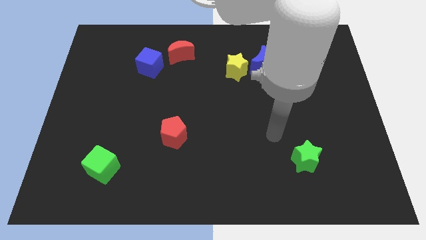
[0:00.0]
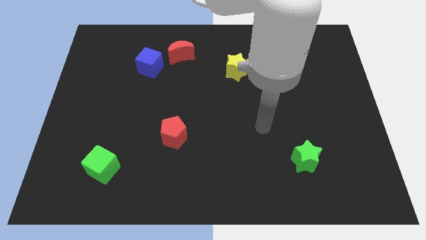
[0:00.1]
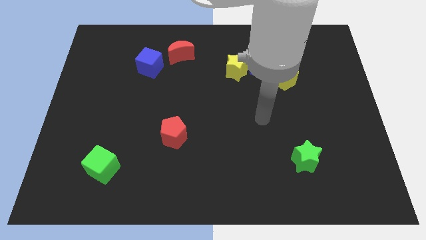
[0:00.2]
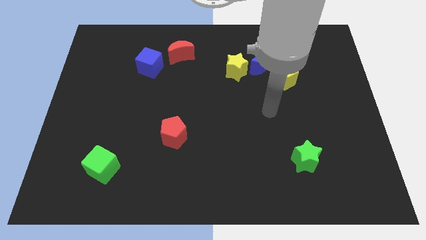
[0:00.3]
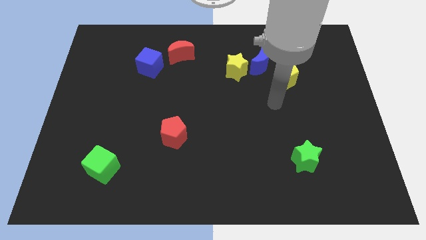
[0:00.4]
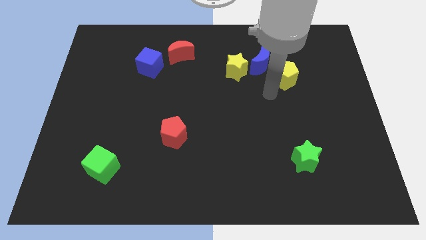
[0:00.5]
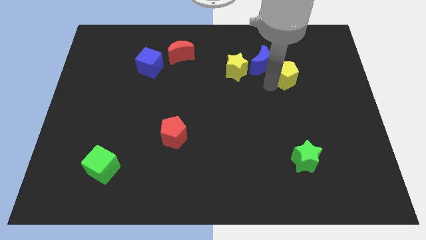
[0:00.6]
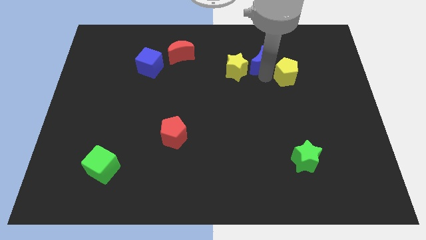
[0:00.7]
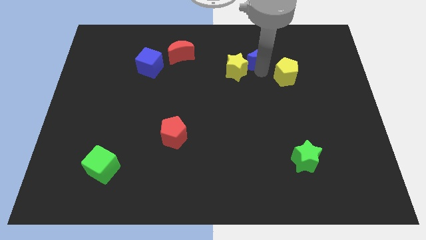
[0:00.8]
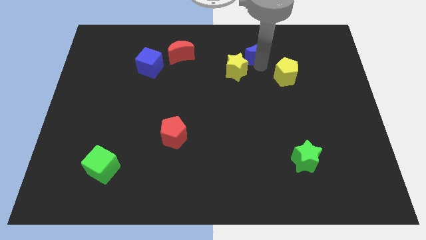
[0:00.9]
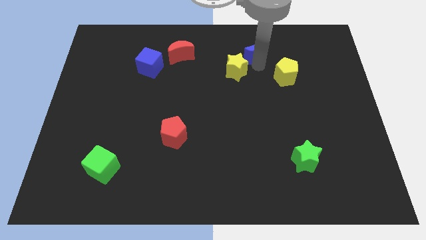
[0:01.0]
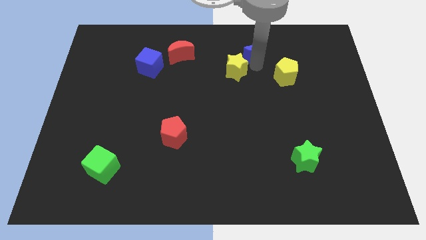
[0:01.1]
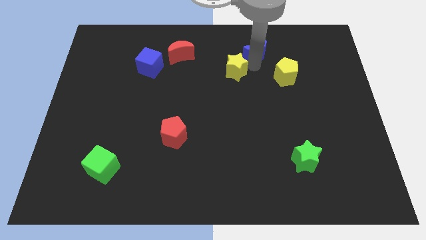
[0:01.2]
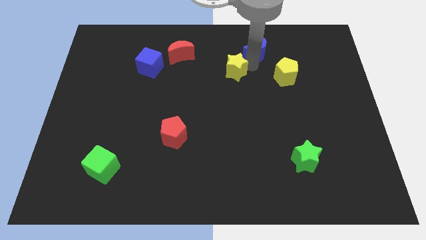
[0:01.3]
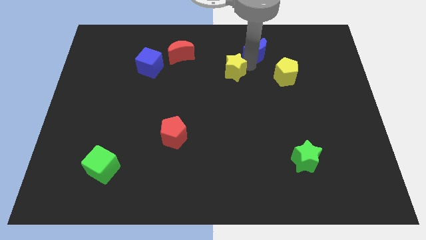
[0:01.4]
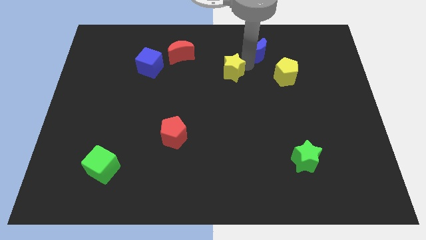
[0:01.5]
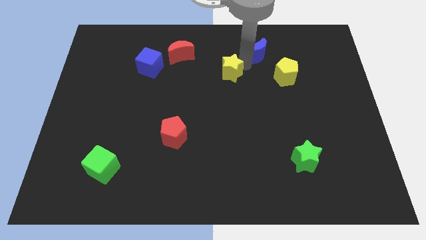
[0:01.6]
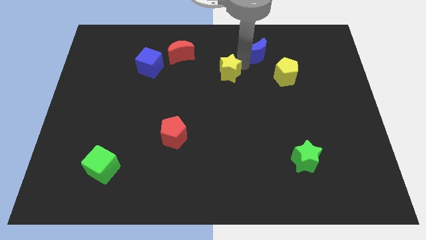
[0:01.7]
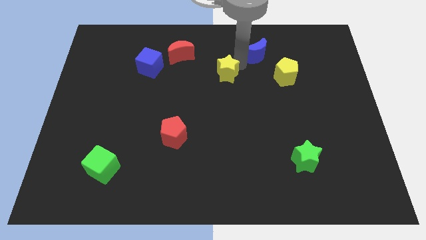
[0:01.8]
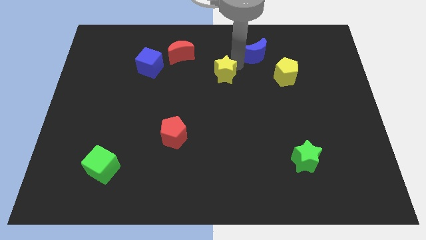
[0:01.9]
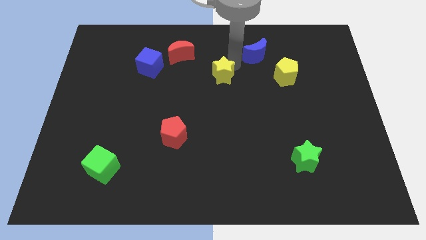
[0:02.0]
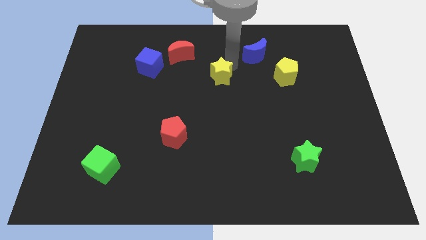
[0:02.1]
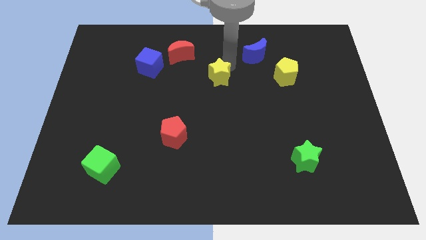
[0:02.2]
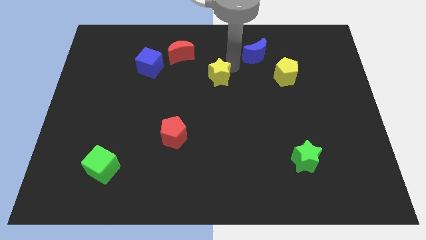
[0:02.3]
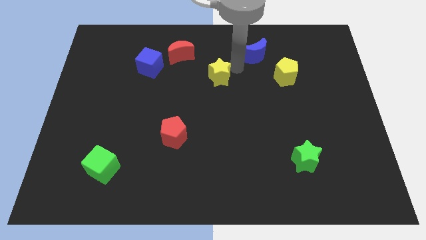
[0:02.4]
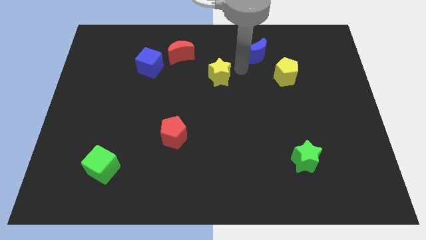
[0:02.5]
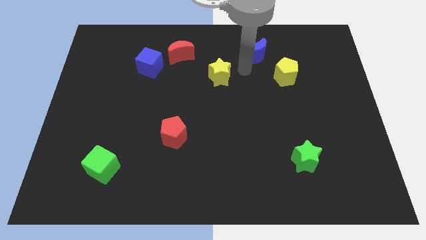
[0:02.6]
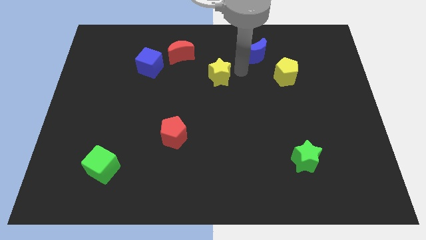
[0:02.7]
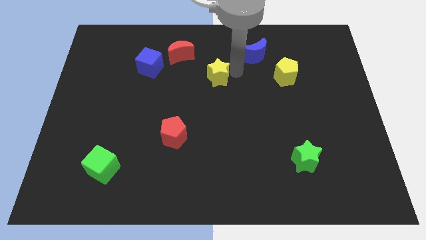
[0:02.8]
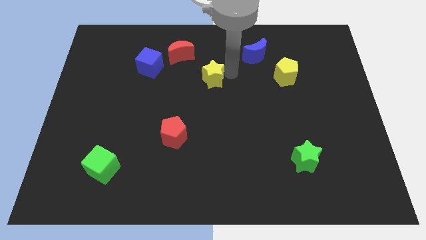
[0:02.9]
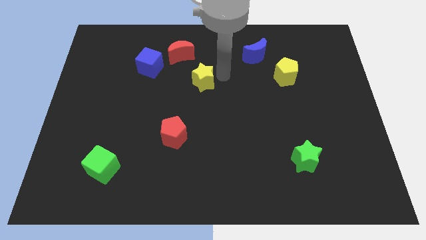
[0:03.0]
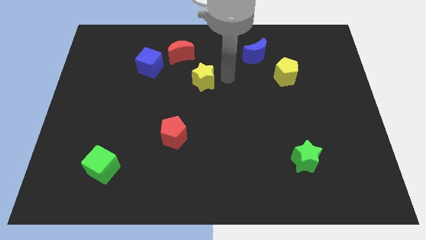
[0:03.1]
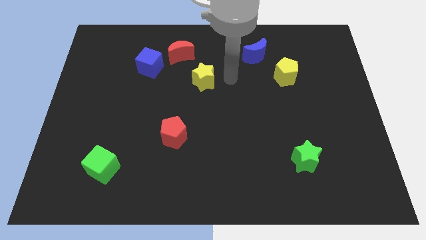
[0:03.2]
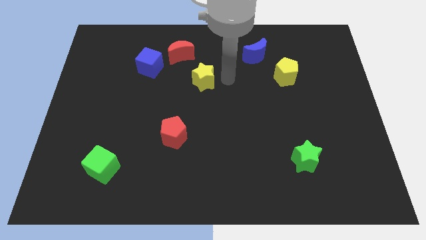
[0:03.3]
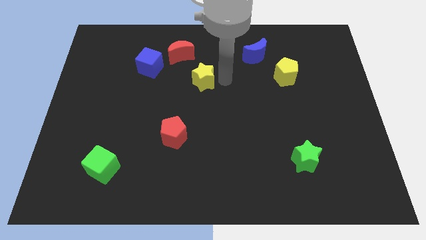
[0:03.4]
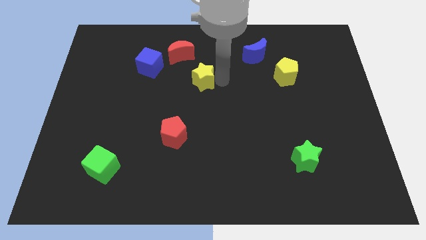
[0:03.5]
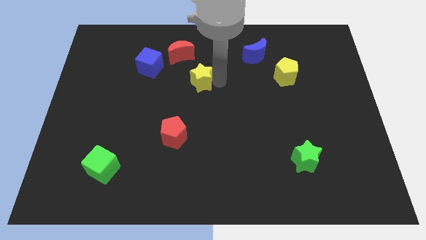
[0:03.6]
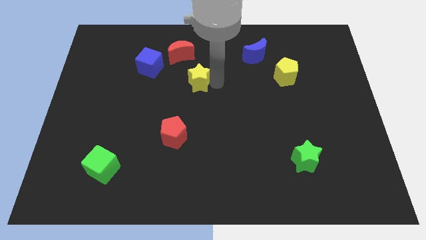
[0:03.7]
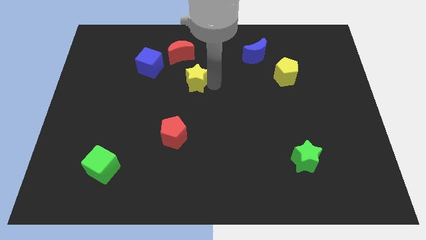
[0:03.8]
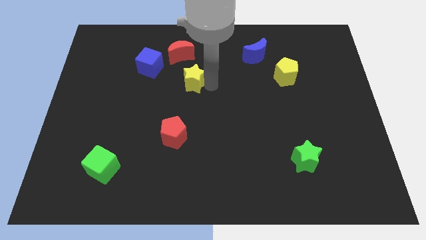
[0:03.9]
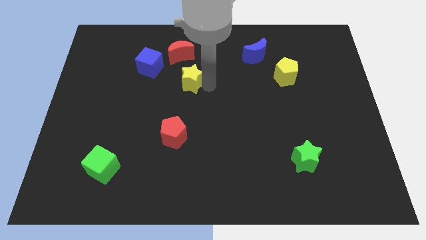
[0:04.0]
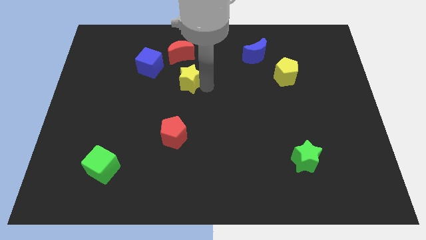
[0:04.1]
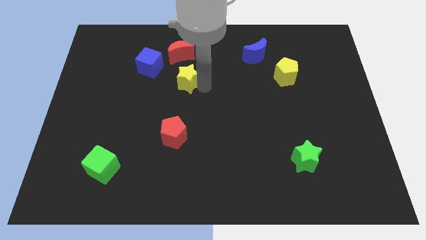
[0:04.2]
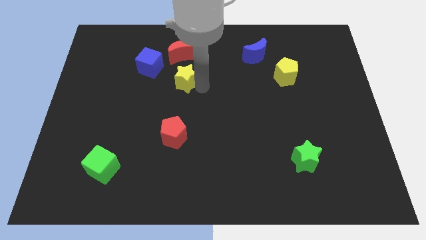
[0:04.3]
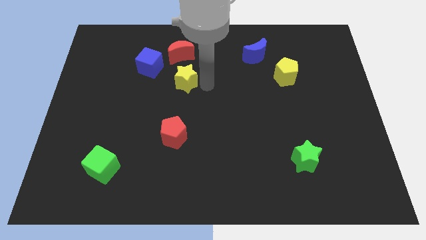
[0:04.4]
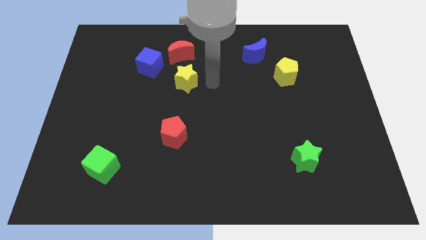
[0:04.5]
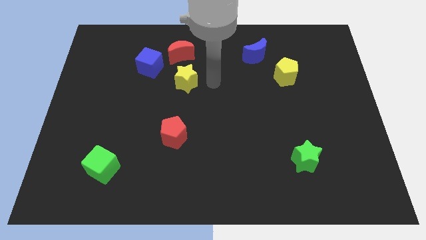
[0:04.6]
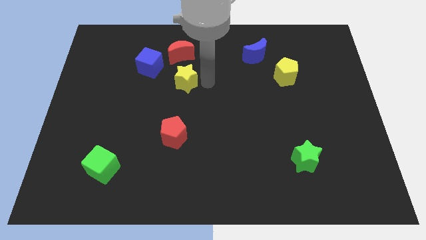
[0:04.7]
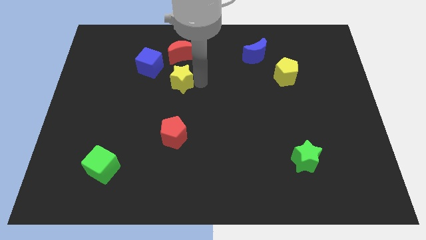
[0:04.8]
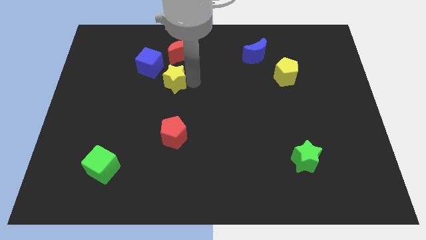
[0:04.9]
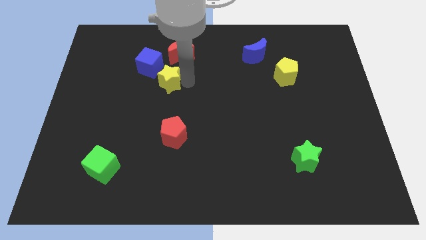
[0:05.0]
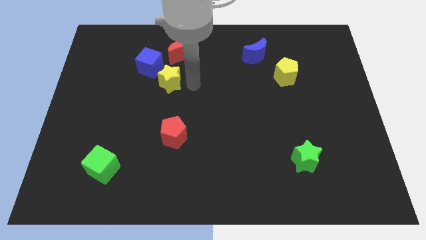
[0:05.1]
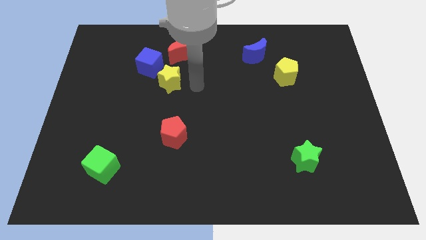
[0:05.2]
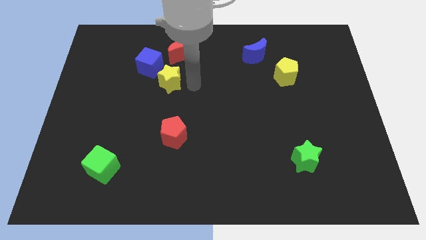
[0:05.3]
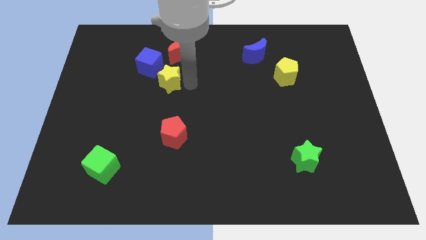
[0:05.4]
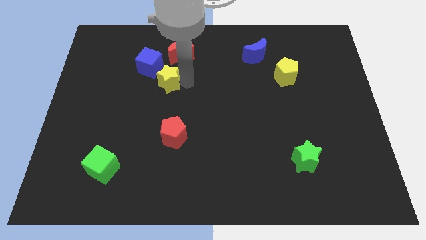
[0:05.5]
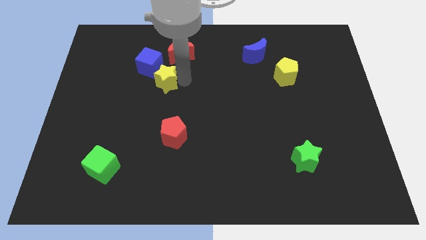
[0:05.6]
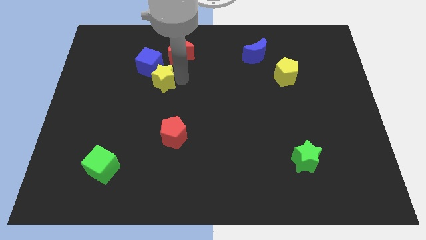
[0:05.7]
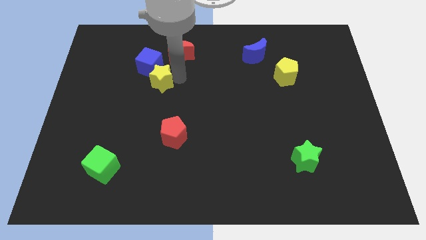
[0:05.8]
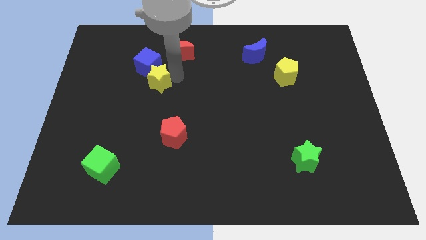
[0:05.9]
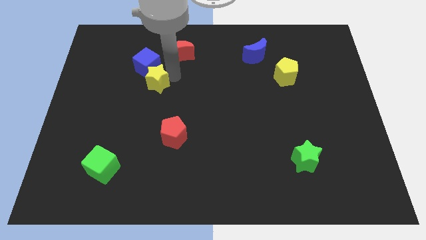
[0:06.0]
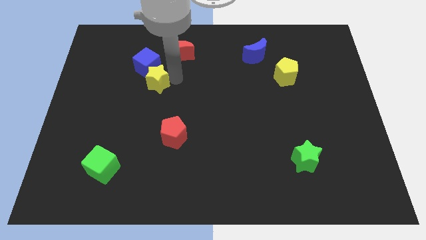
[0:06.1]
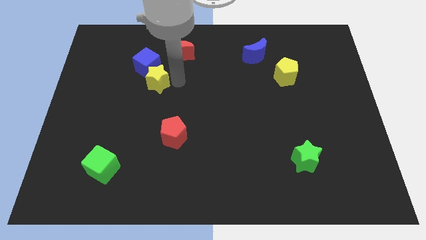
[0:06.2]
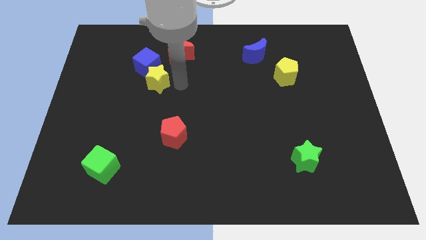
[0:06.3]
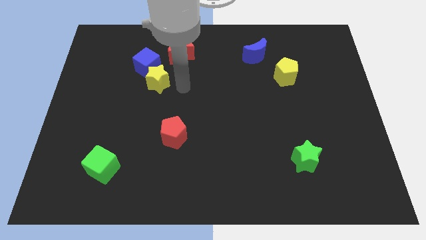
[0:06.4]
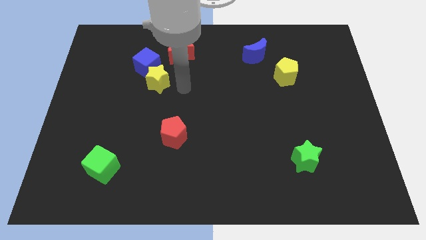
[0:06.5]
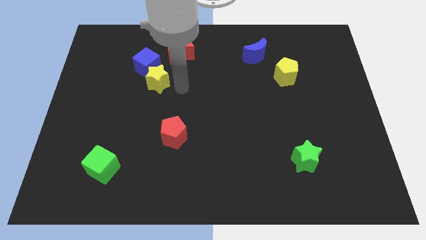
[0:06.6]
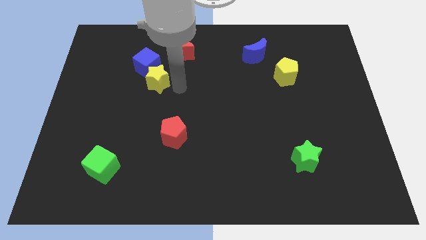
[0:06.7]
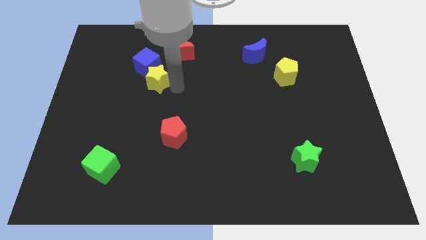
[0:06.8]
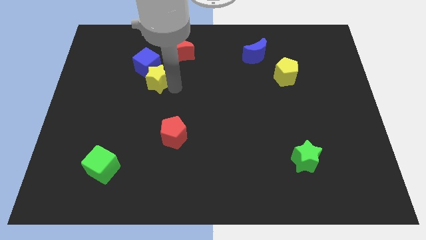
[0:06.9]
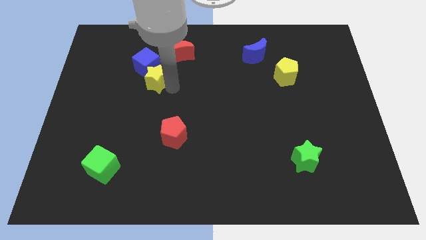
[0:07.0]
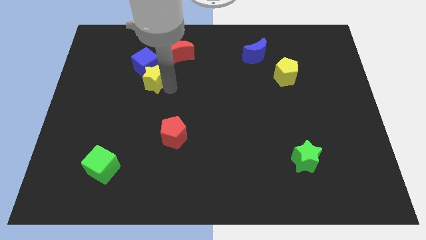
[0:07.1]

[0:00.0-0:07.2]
move the yellow star left

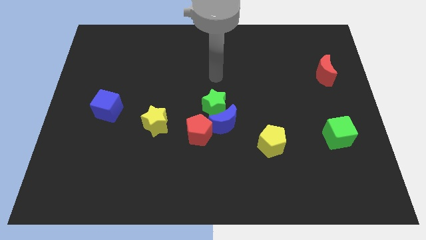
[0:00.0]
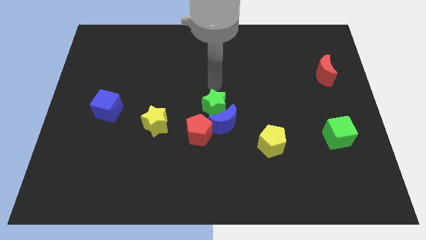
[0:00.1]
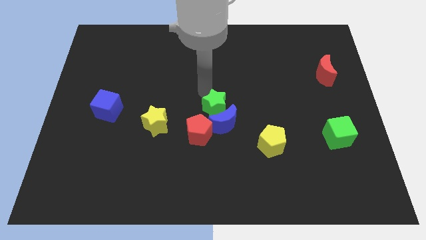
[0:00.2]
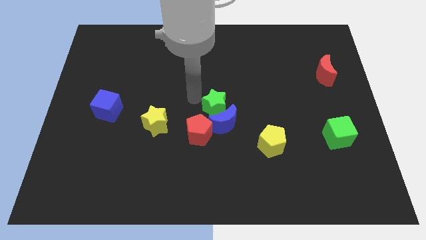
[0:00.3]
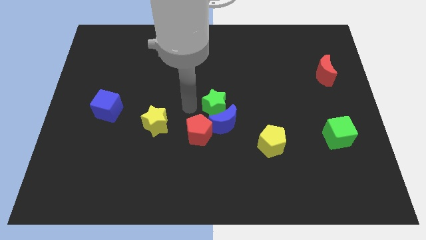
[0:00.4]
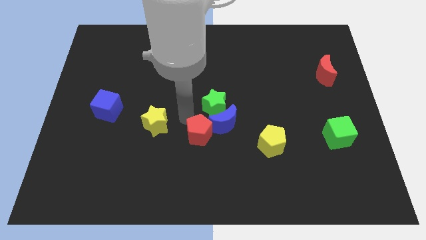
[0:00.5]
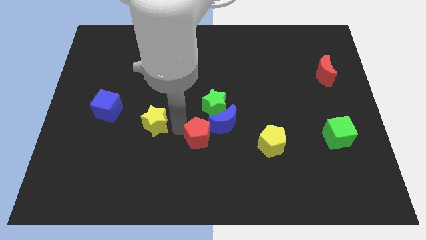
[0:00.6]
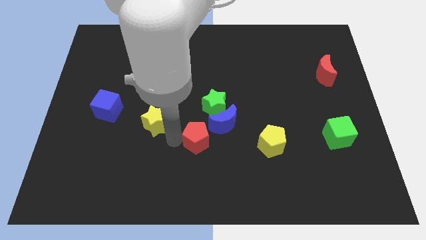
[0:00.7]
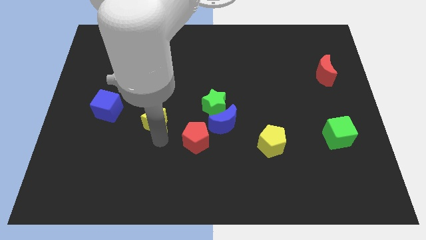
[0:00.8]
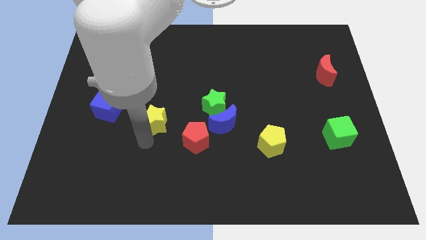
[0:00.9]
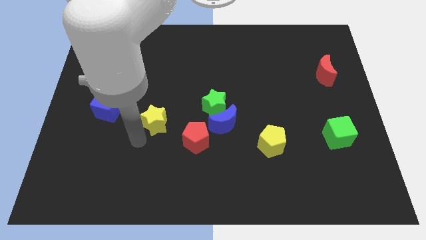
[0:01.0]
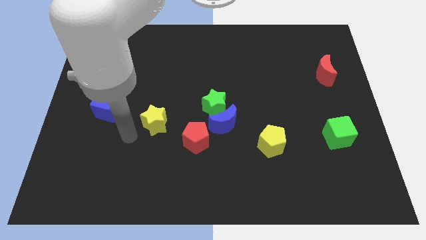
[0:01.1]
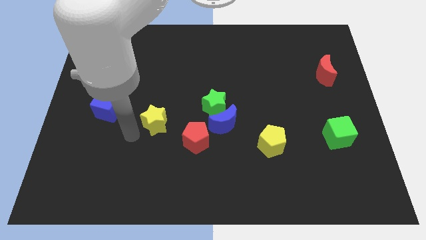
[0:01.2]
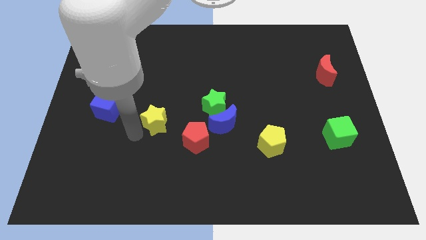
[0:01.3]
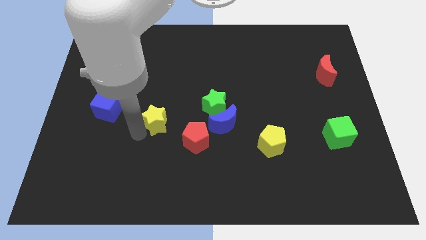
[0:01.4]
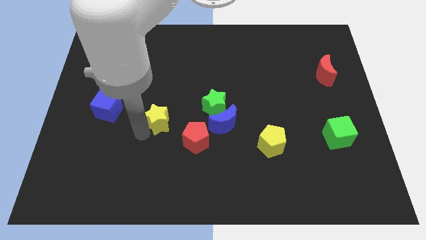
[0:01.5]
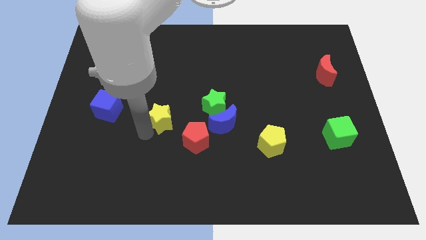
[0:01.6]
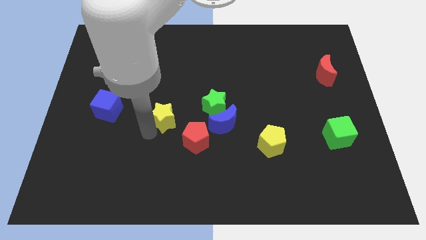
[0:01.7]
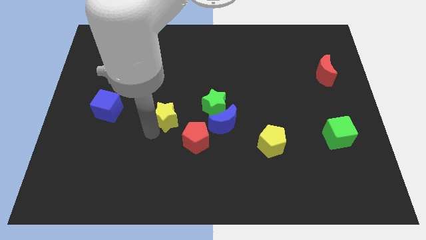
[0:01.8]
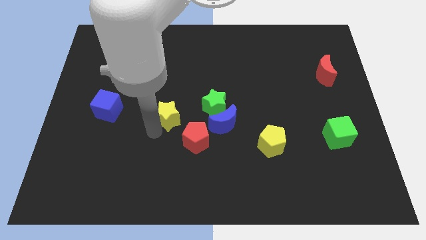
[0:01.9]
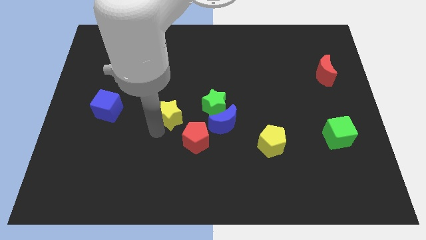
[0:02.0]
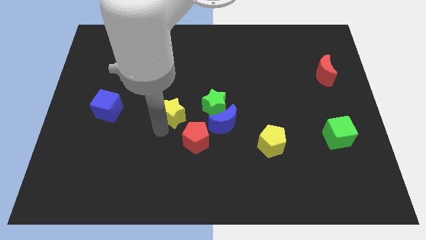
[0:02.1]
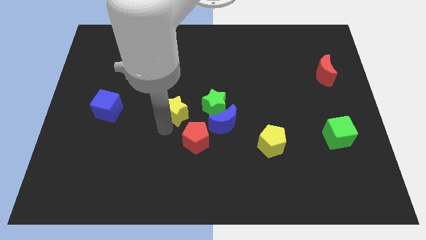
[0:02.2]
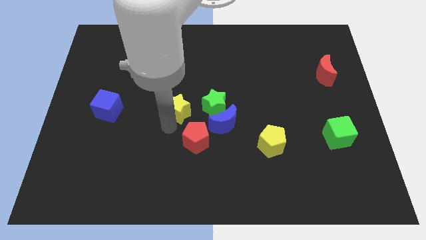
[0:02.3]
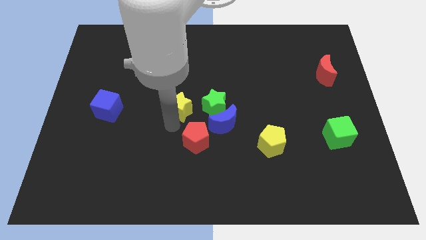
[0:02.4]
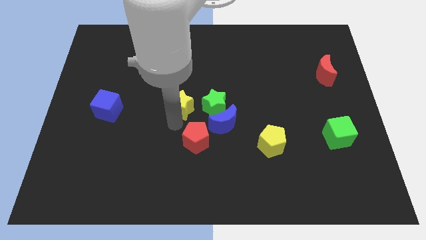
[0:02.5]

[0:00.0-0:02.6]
slide the yellow star a bit diagonally upwards and to the right
